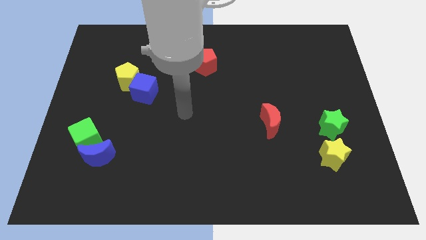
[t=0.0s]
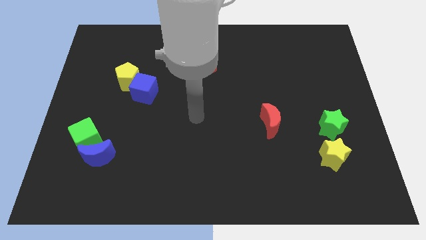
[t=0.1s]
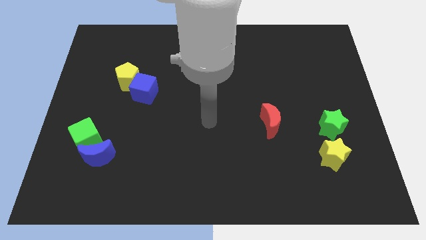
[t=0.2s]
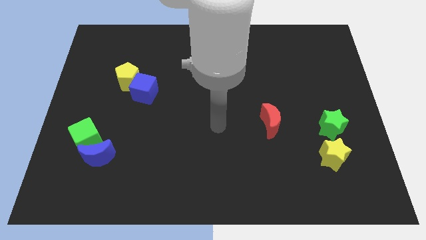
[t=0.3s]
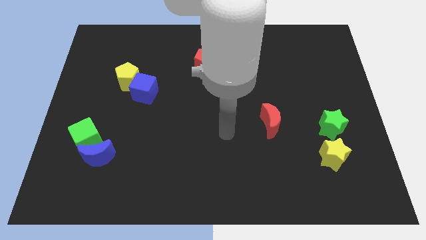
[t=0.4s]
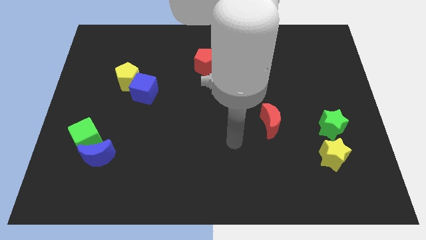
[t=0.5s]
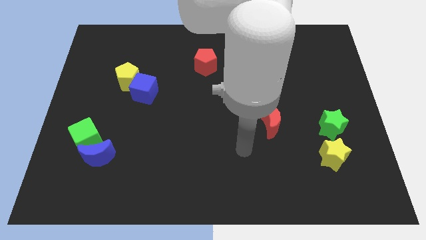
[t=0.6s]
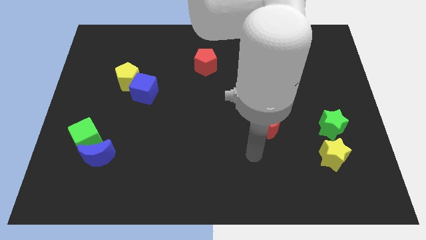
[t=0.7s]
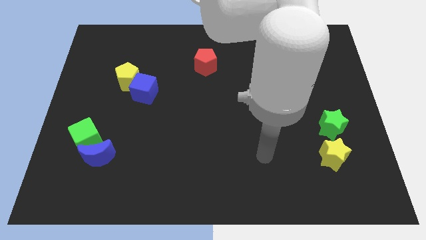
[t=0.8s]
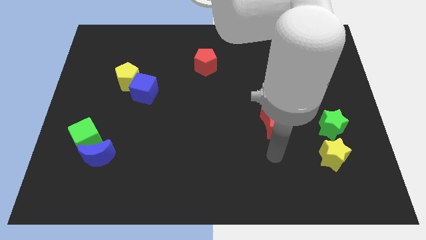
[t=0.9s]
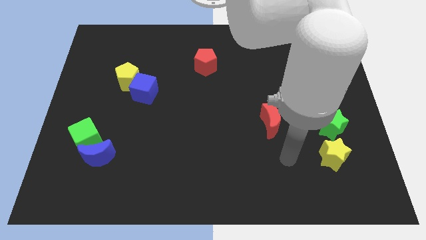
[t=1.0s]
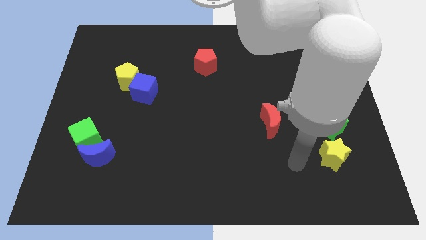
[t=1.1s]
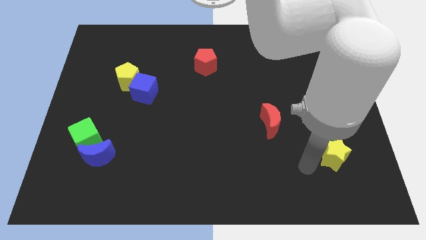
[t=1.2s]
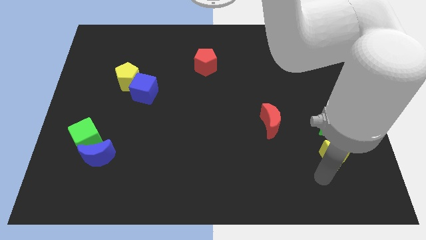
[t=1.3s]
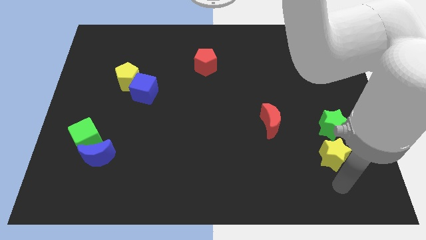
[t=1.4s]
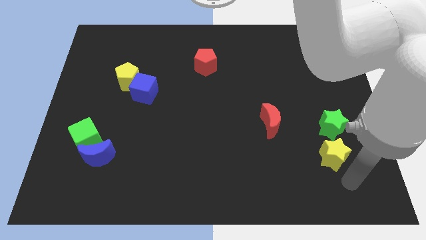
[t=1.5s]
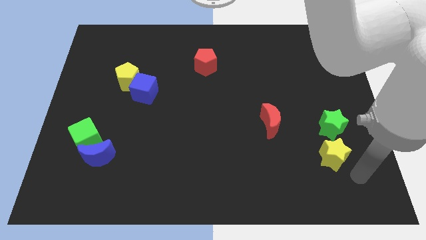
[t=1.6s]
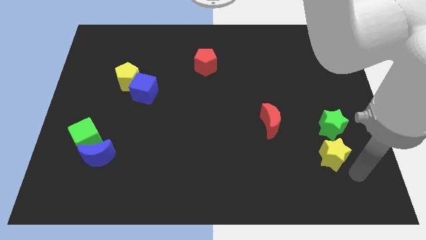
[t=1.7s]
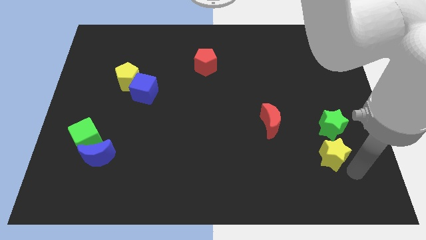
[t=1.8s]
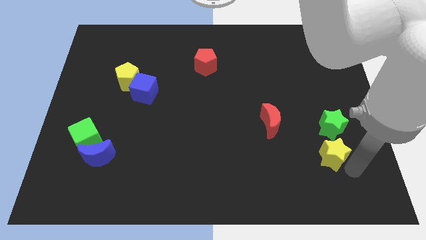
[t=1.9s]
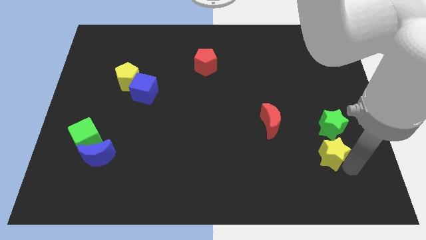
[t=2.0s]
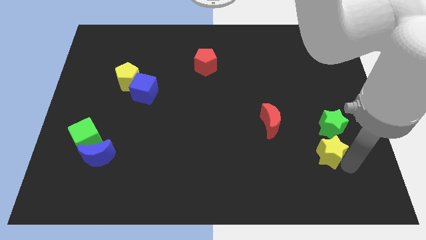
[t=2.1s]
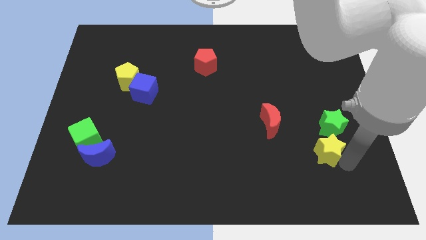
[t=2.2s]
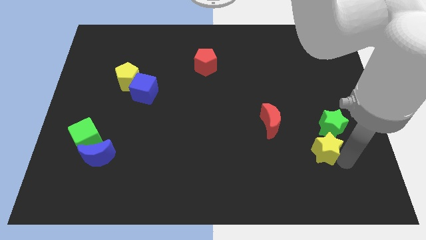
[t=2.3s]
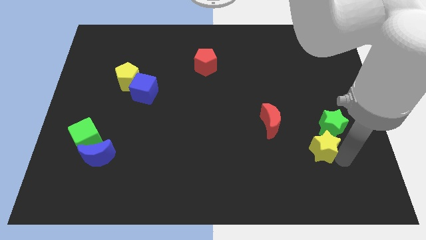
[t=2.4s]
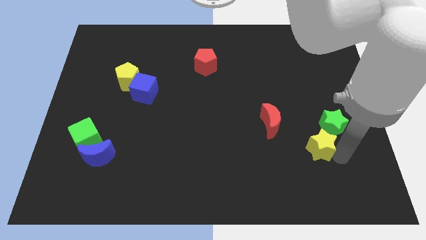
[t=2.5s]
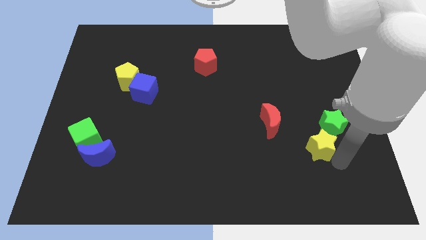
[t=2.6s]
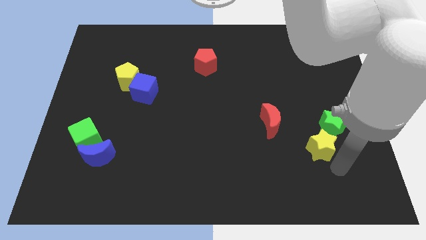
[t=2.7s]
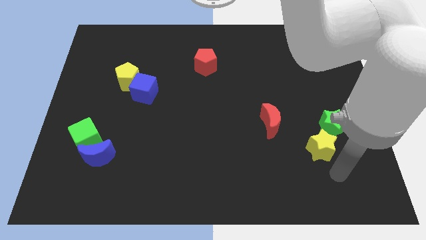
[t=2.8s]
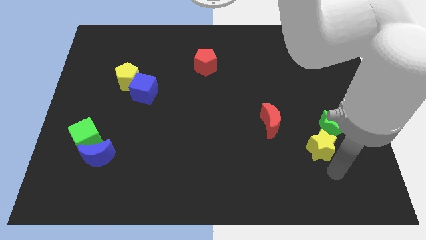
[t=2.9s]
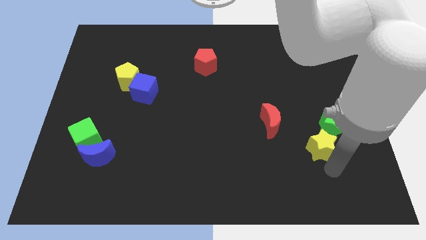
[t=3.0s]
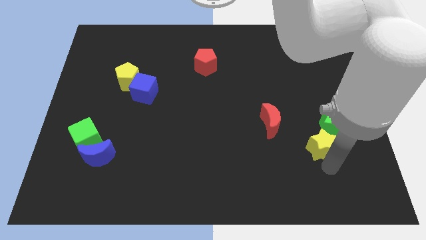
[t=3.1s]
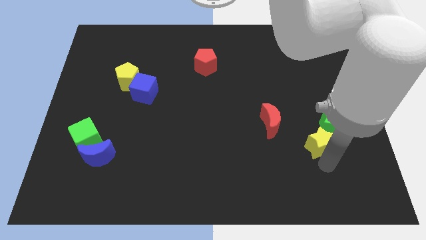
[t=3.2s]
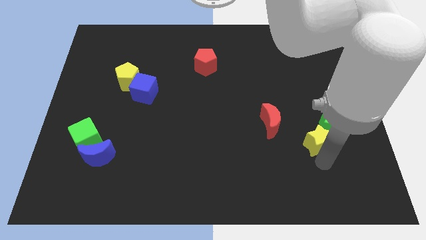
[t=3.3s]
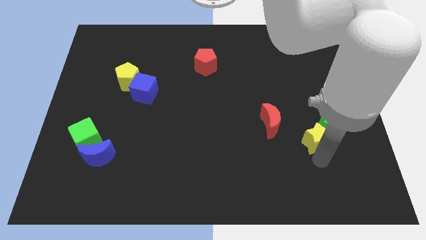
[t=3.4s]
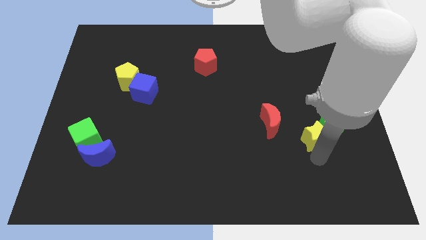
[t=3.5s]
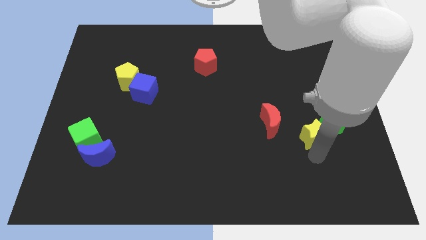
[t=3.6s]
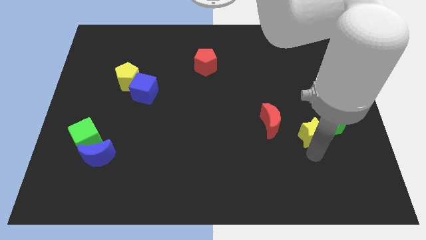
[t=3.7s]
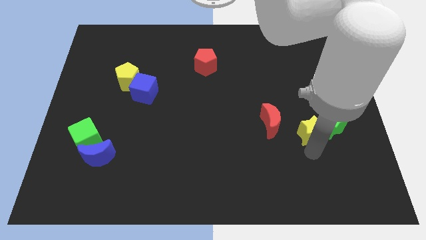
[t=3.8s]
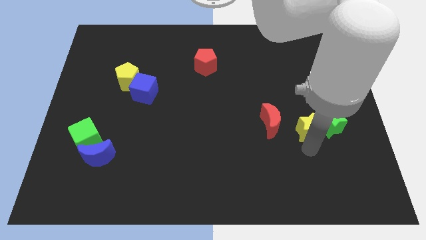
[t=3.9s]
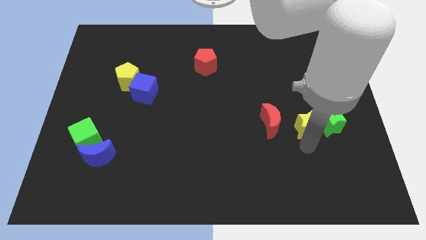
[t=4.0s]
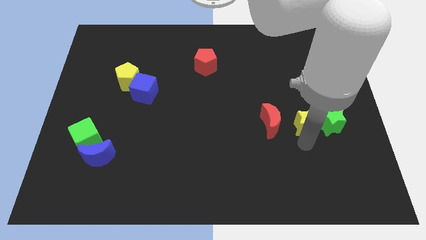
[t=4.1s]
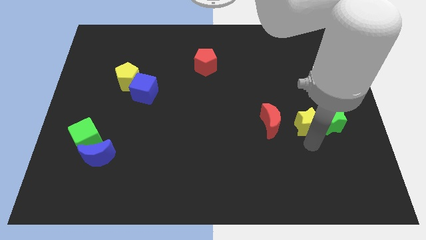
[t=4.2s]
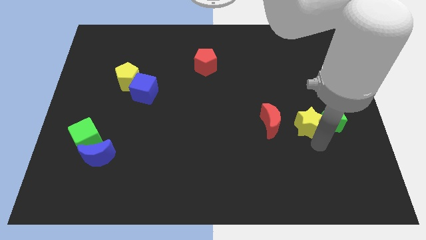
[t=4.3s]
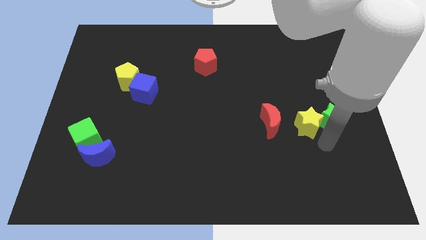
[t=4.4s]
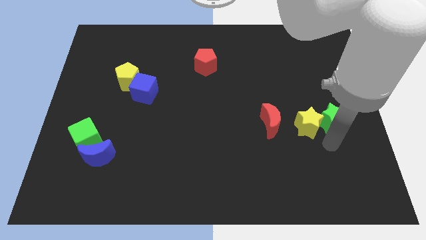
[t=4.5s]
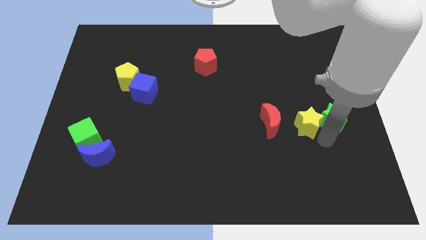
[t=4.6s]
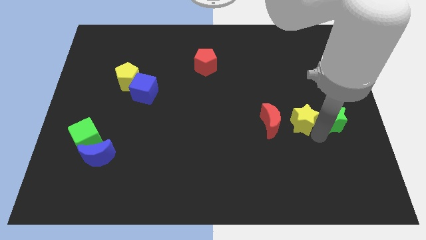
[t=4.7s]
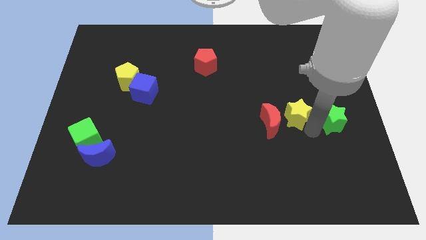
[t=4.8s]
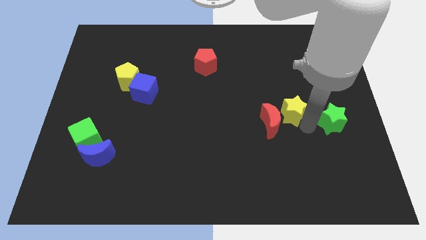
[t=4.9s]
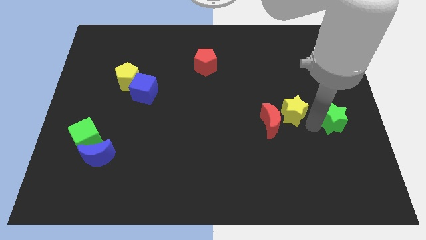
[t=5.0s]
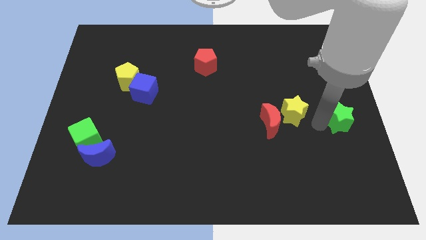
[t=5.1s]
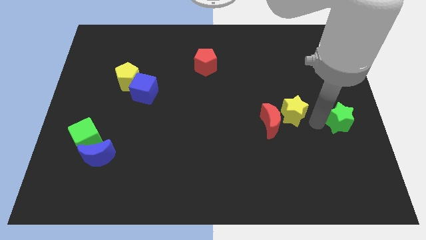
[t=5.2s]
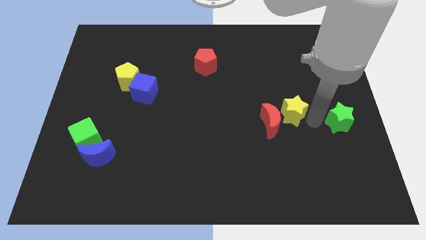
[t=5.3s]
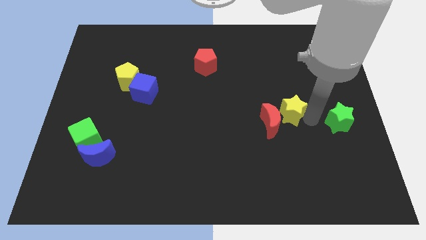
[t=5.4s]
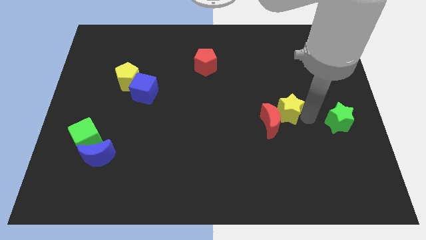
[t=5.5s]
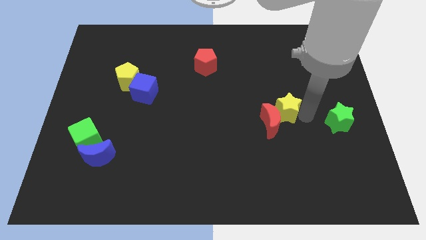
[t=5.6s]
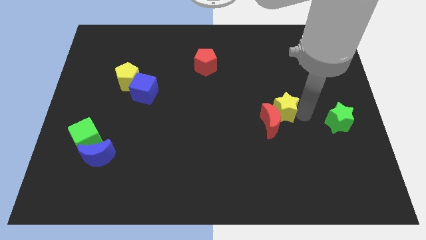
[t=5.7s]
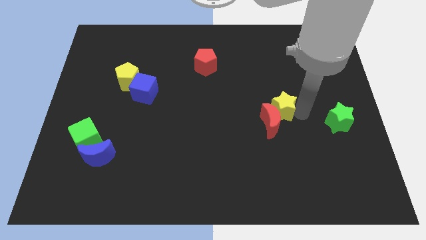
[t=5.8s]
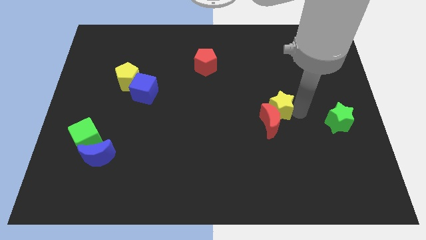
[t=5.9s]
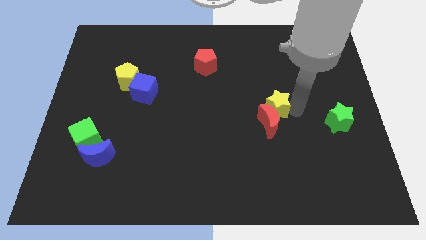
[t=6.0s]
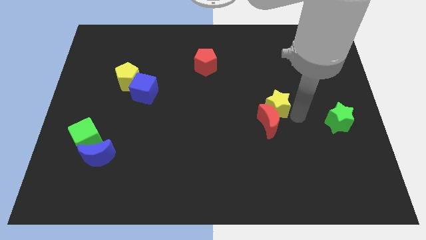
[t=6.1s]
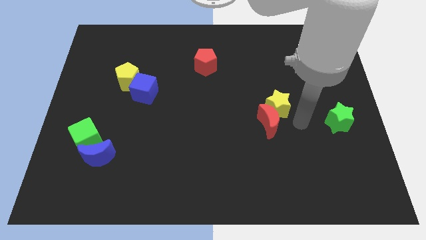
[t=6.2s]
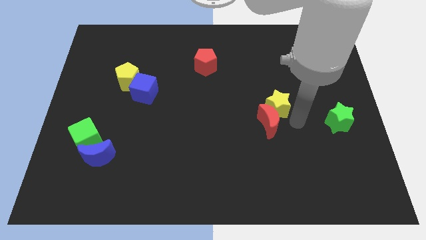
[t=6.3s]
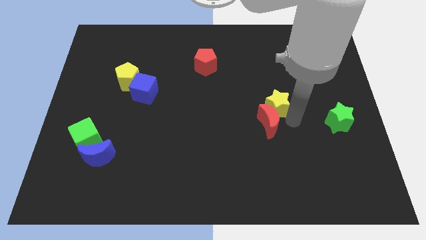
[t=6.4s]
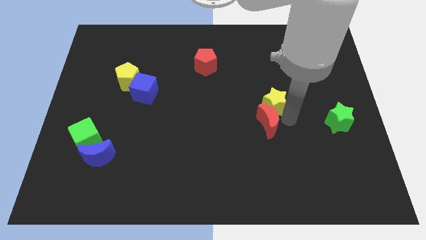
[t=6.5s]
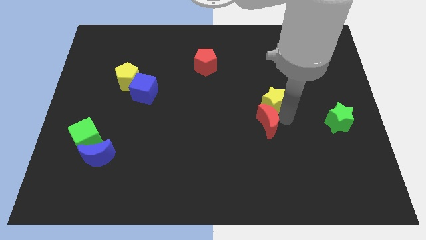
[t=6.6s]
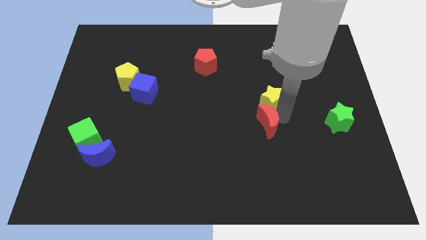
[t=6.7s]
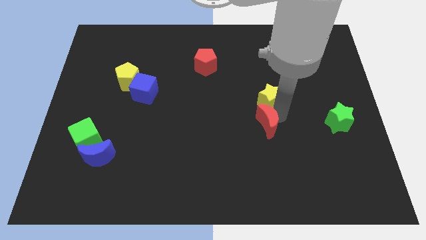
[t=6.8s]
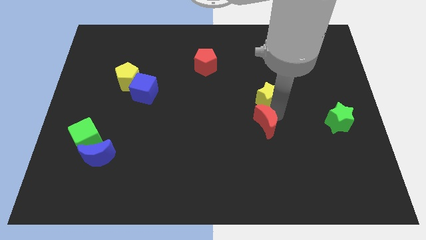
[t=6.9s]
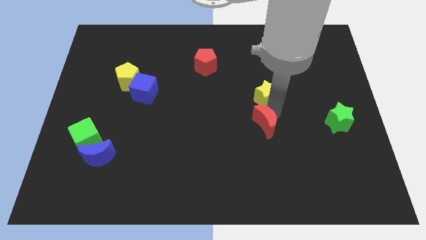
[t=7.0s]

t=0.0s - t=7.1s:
move the yellow star up and to the left diagonally

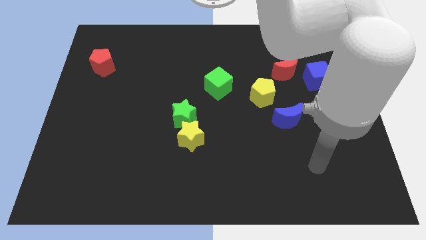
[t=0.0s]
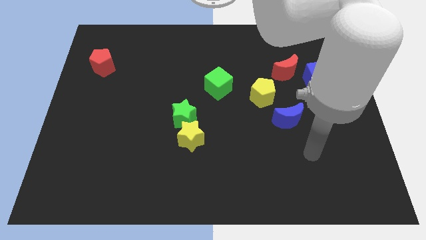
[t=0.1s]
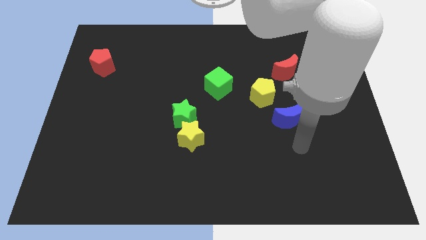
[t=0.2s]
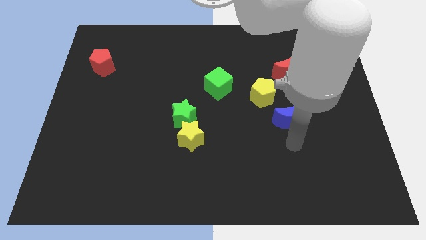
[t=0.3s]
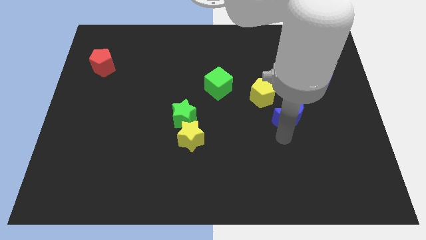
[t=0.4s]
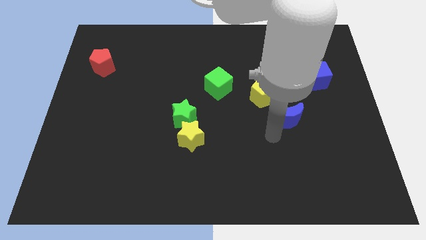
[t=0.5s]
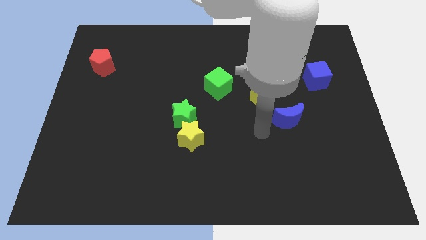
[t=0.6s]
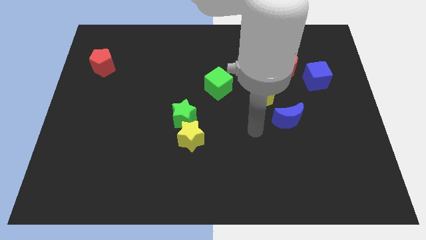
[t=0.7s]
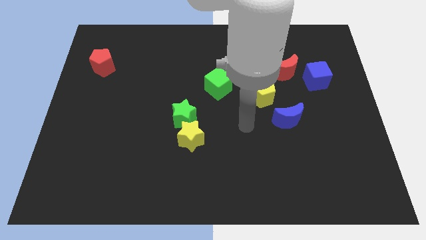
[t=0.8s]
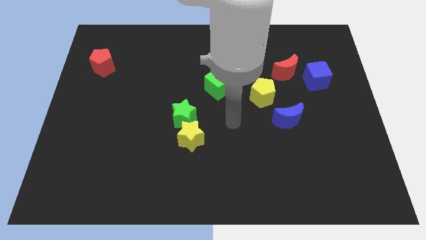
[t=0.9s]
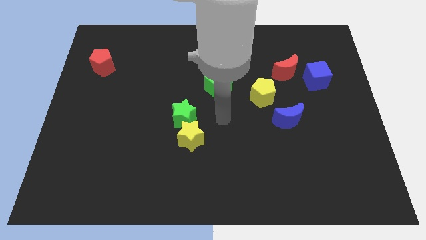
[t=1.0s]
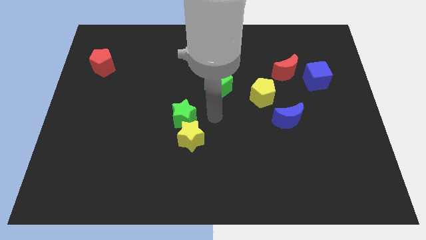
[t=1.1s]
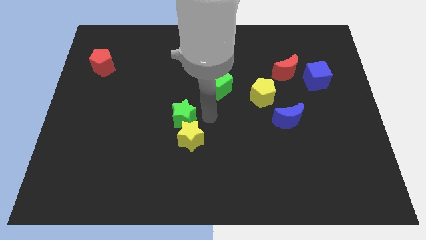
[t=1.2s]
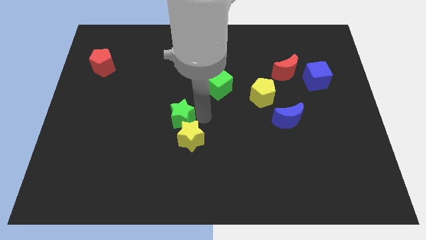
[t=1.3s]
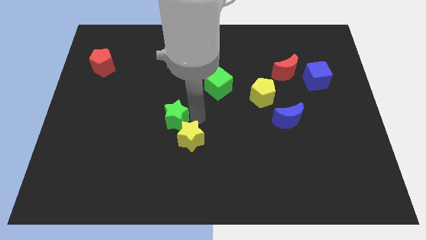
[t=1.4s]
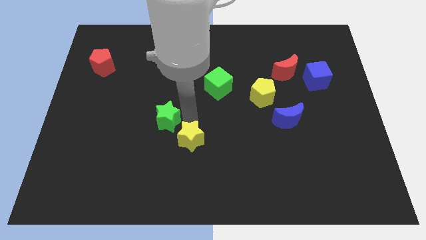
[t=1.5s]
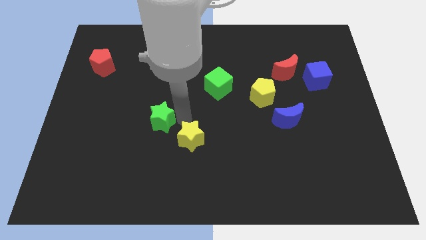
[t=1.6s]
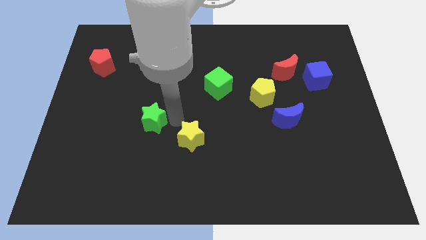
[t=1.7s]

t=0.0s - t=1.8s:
slightly move the green star left
